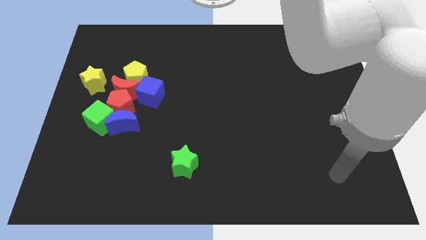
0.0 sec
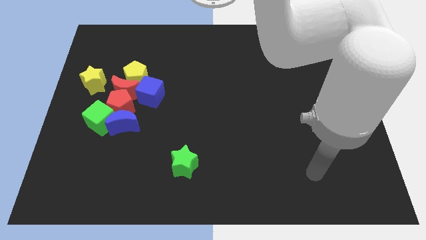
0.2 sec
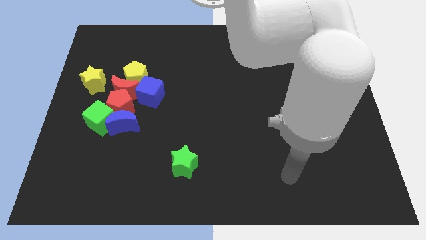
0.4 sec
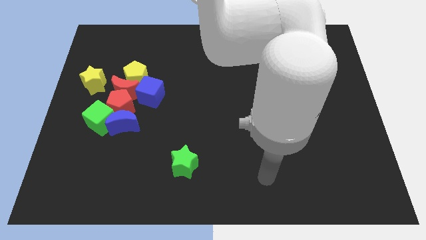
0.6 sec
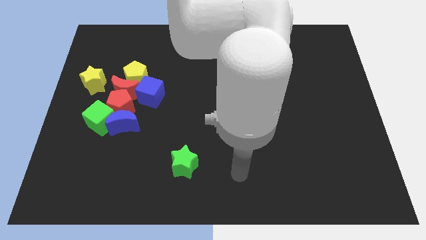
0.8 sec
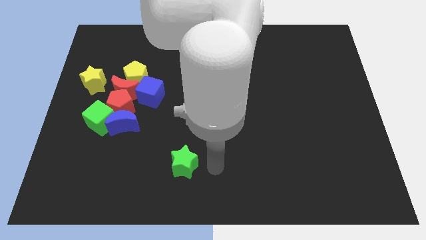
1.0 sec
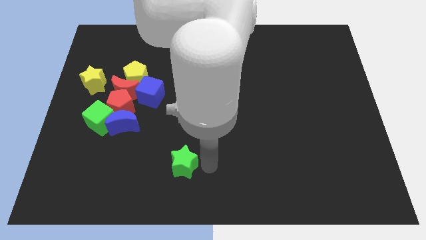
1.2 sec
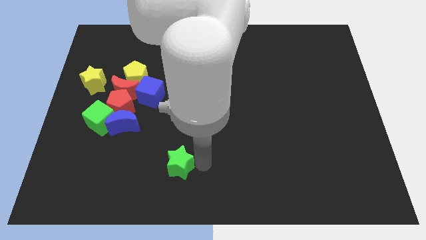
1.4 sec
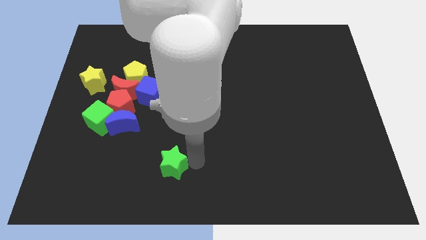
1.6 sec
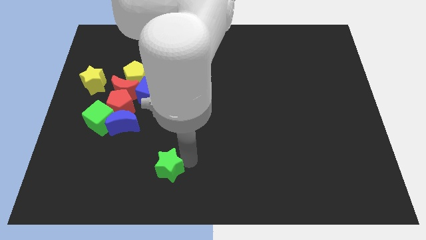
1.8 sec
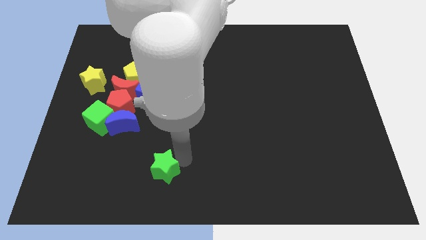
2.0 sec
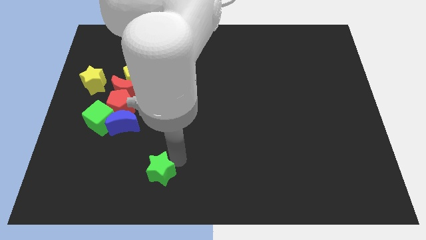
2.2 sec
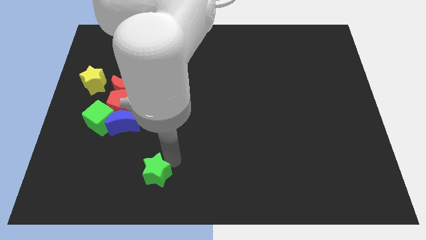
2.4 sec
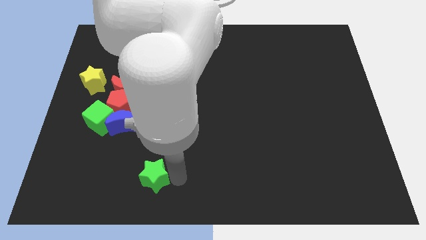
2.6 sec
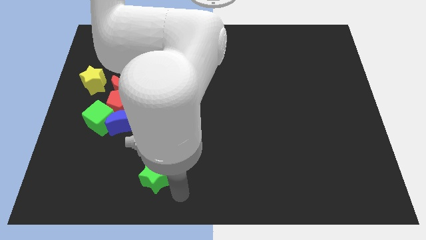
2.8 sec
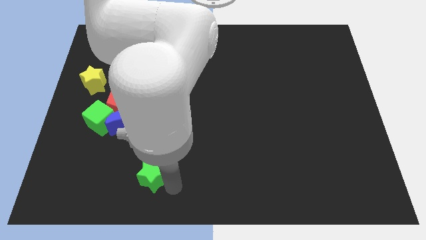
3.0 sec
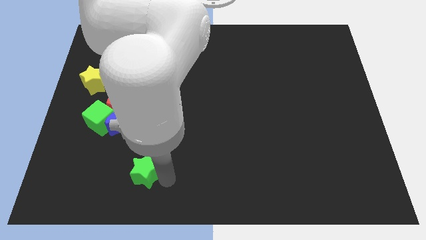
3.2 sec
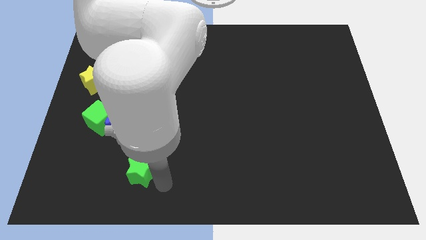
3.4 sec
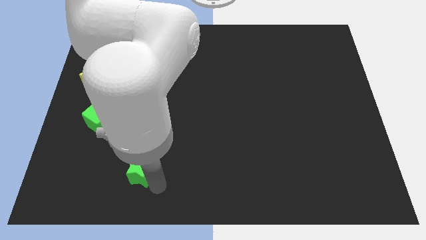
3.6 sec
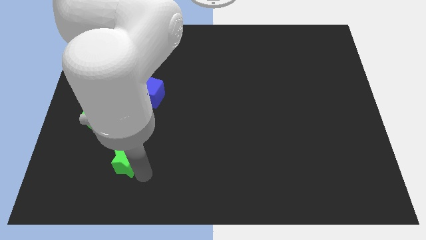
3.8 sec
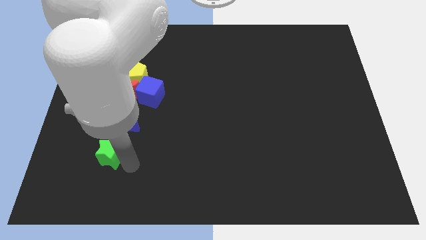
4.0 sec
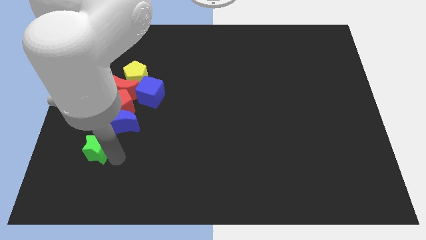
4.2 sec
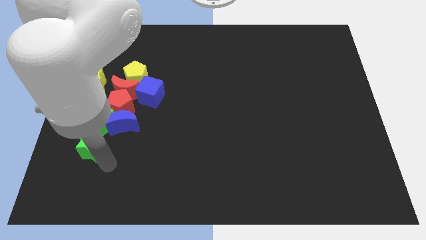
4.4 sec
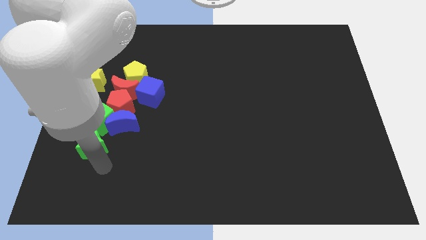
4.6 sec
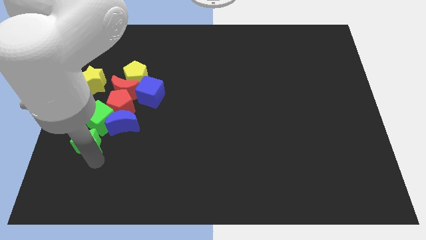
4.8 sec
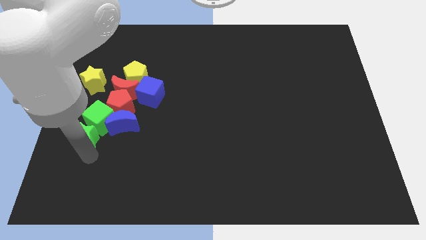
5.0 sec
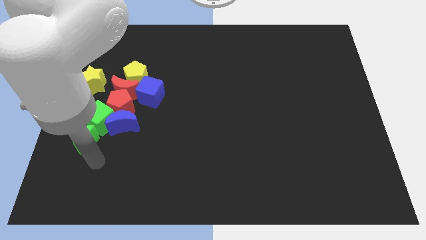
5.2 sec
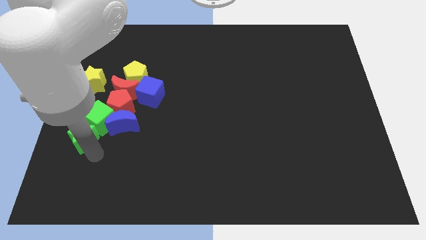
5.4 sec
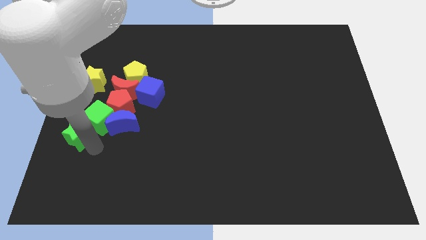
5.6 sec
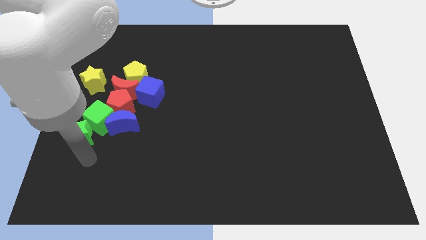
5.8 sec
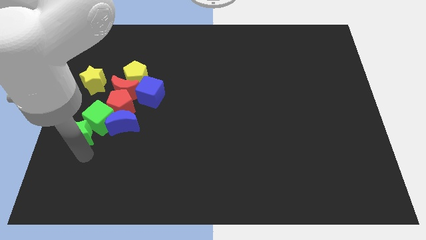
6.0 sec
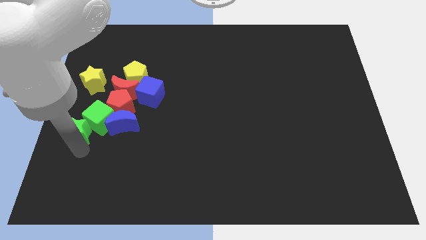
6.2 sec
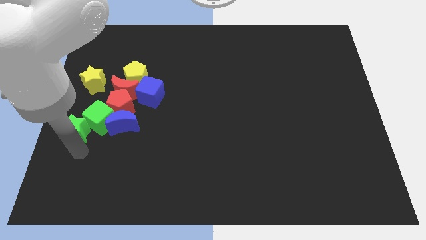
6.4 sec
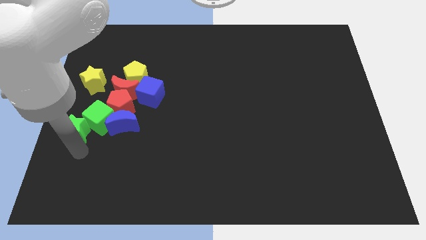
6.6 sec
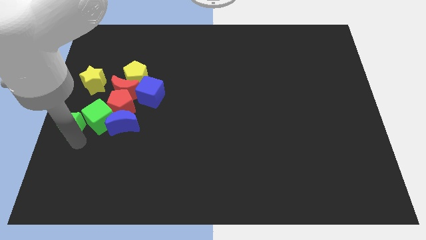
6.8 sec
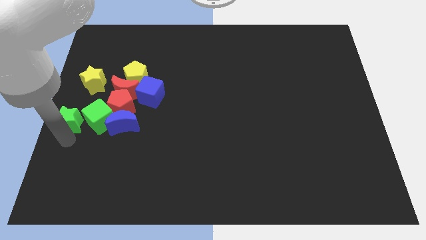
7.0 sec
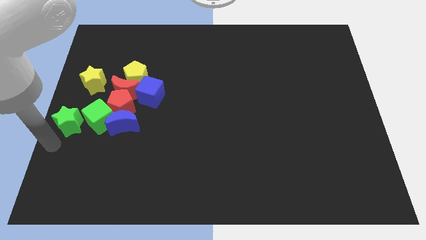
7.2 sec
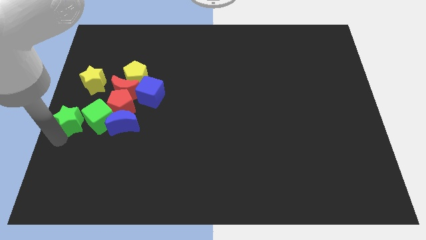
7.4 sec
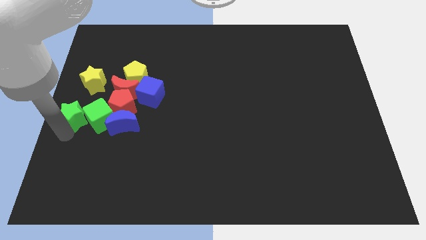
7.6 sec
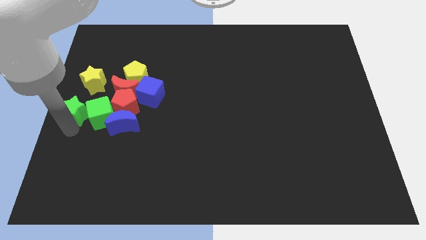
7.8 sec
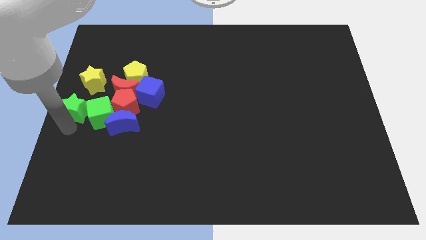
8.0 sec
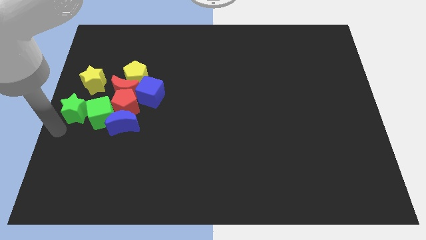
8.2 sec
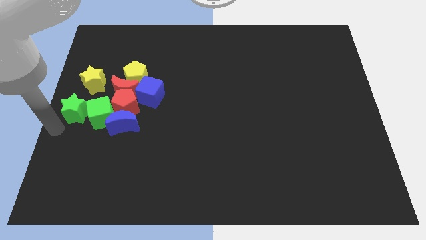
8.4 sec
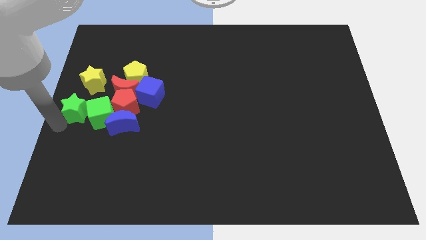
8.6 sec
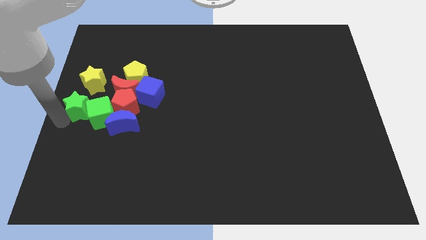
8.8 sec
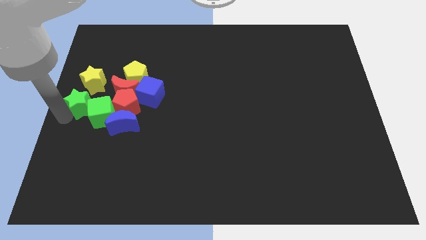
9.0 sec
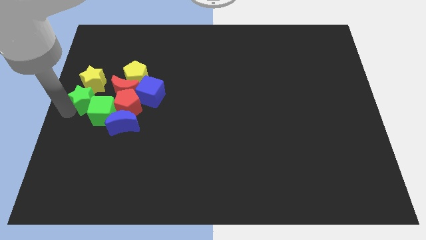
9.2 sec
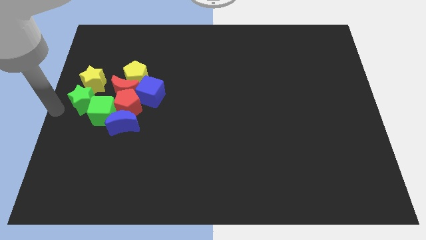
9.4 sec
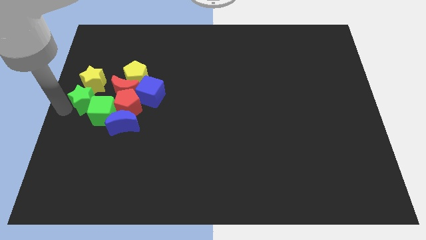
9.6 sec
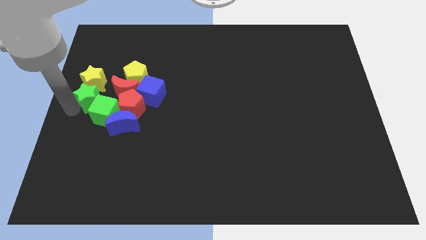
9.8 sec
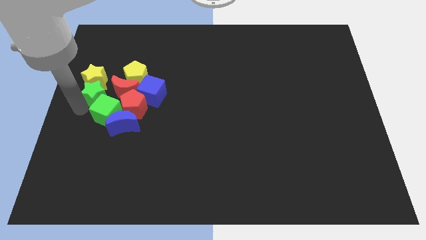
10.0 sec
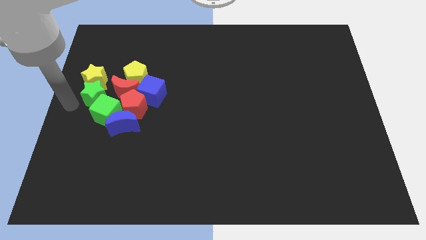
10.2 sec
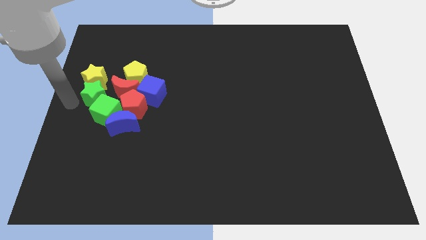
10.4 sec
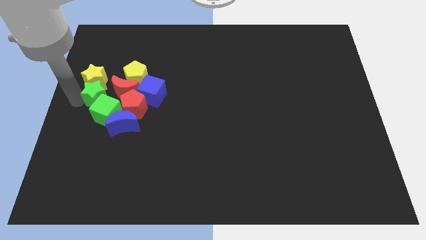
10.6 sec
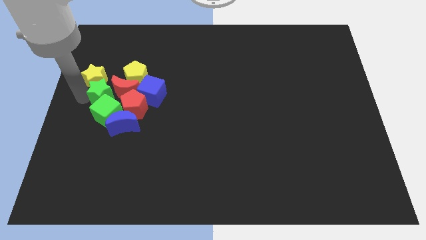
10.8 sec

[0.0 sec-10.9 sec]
push the green star next to the red moon

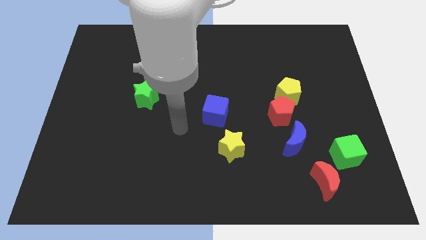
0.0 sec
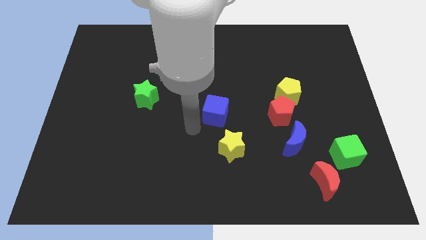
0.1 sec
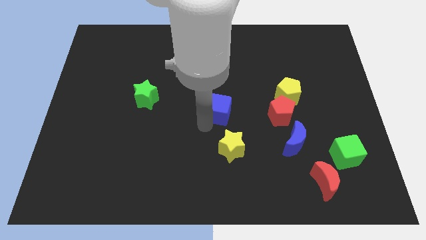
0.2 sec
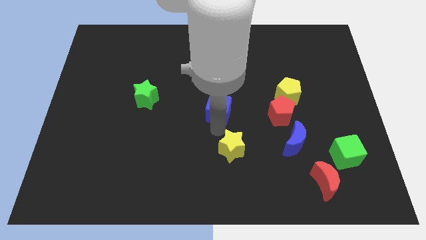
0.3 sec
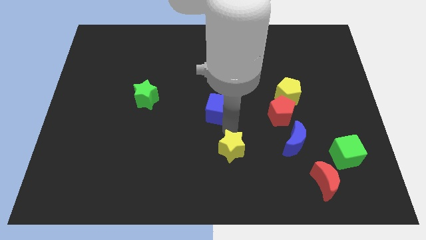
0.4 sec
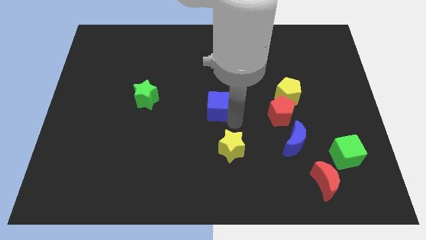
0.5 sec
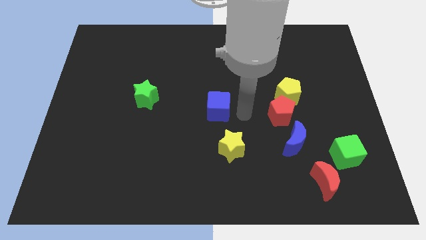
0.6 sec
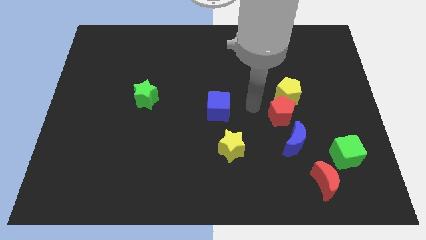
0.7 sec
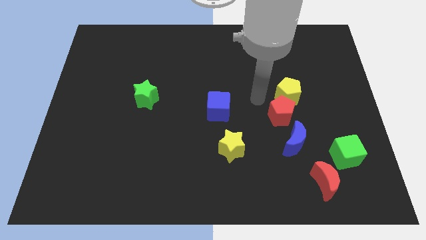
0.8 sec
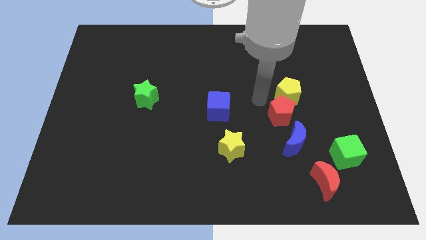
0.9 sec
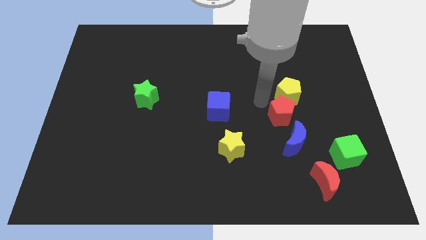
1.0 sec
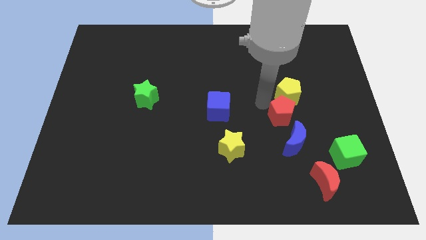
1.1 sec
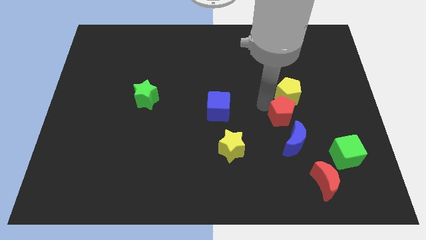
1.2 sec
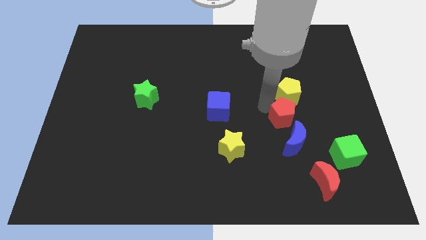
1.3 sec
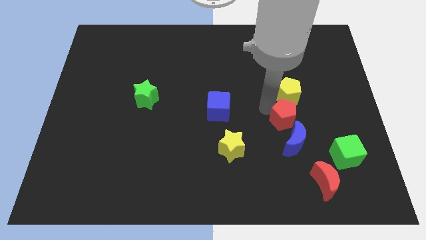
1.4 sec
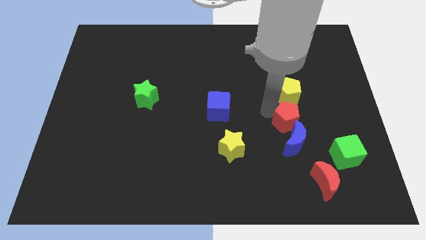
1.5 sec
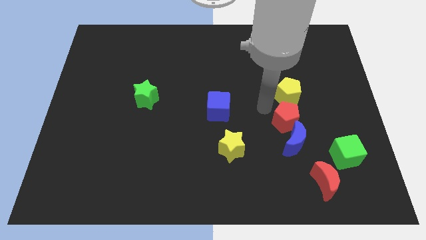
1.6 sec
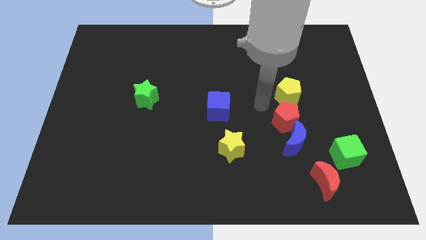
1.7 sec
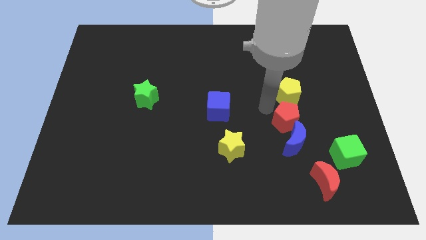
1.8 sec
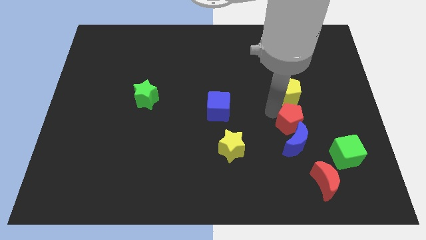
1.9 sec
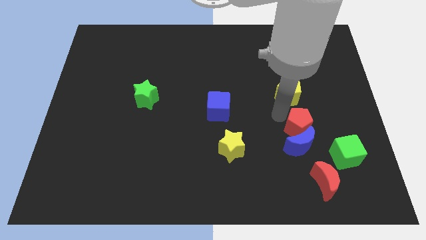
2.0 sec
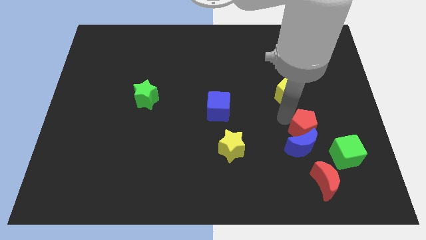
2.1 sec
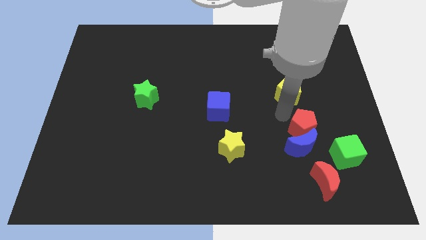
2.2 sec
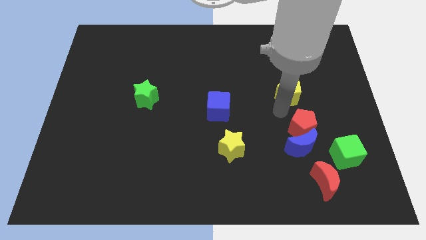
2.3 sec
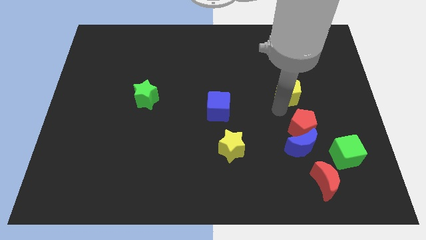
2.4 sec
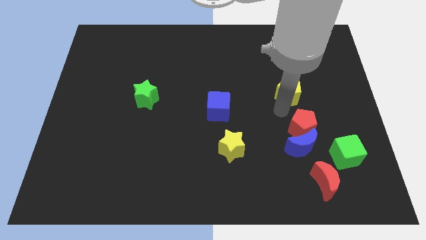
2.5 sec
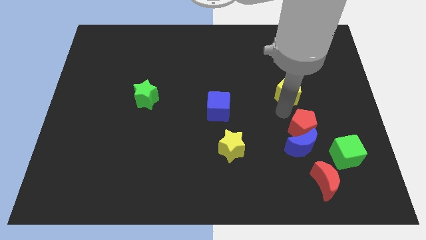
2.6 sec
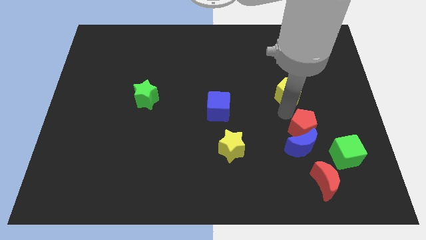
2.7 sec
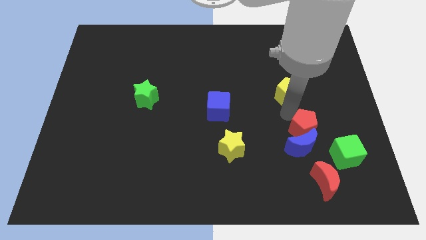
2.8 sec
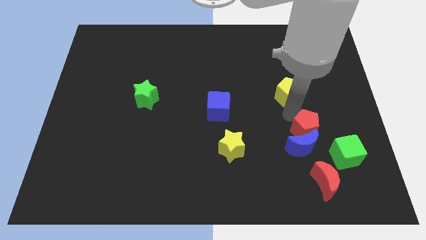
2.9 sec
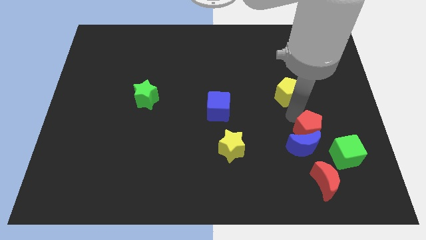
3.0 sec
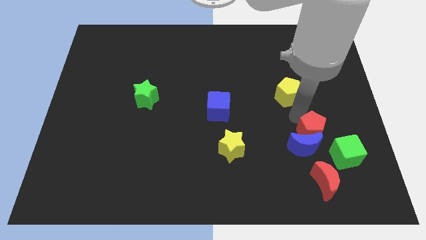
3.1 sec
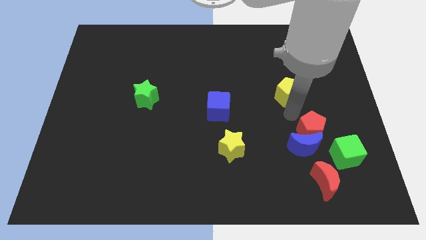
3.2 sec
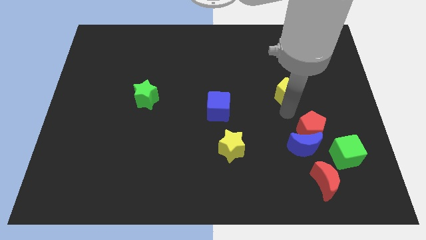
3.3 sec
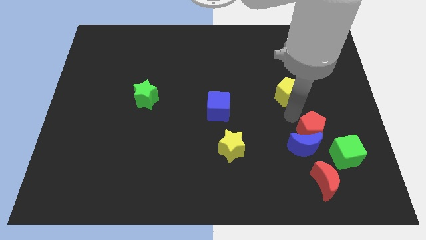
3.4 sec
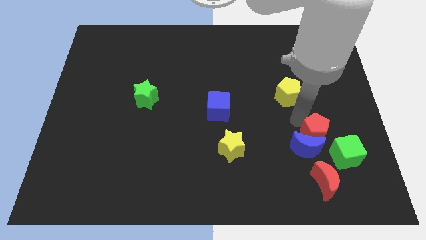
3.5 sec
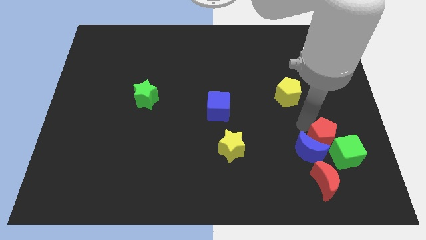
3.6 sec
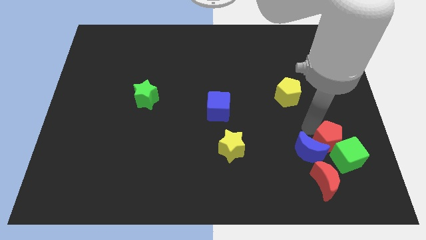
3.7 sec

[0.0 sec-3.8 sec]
push the red pentagon to the green cube
